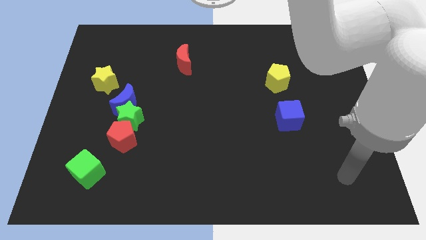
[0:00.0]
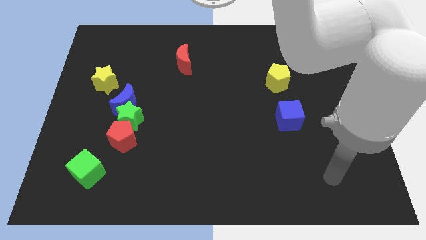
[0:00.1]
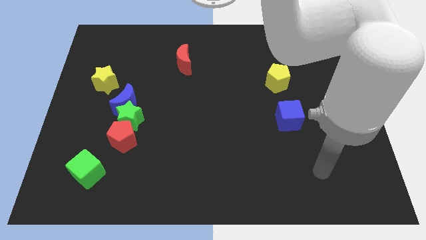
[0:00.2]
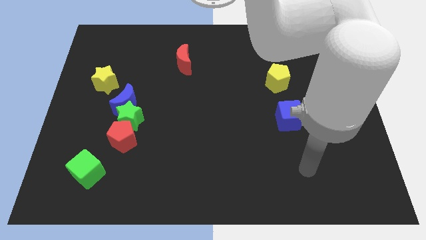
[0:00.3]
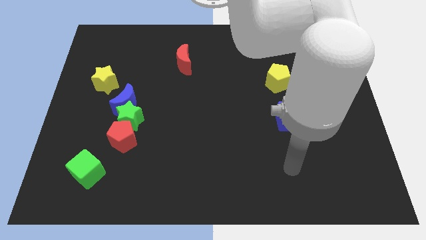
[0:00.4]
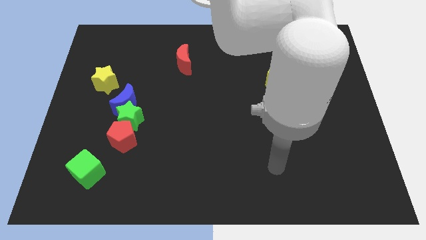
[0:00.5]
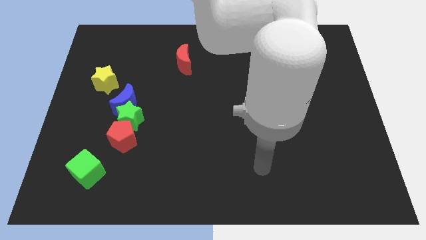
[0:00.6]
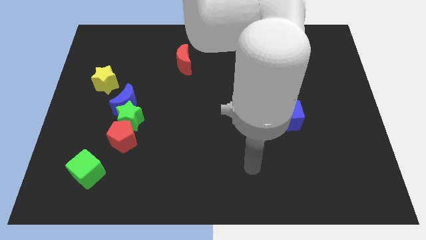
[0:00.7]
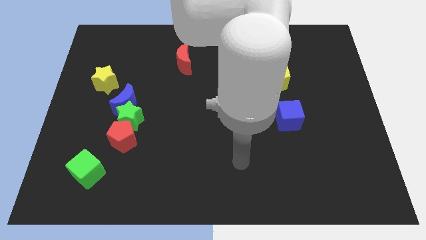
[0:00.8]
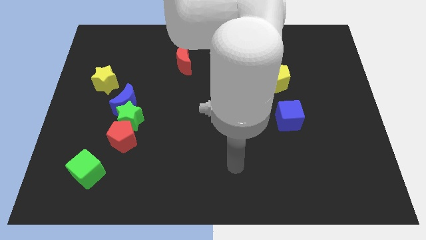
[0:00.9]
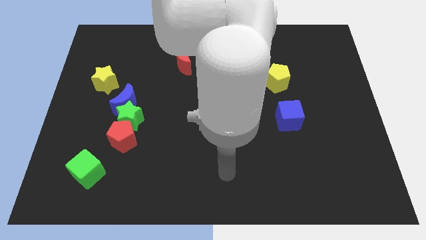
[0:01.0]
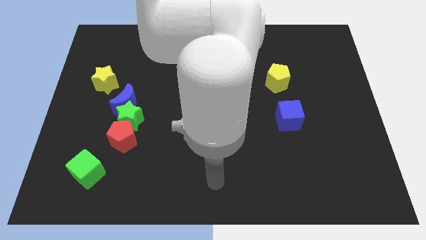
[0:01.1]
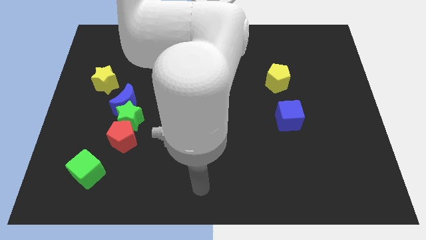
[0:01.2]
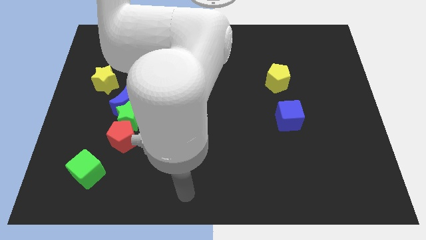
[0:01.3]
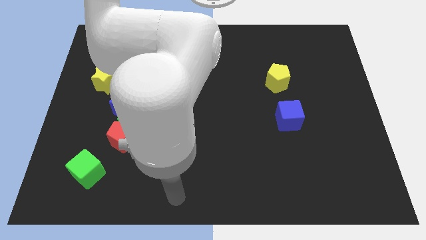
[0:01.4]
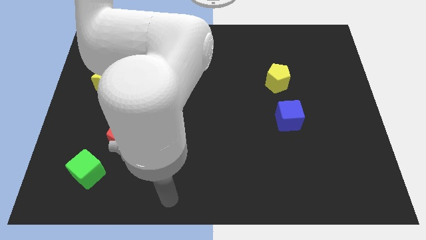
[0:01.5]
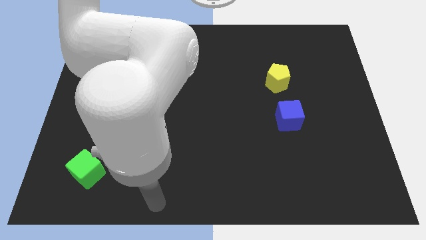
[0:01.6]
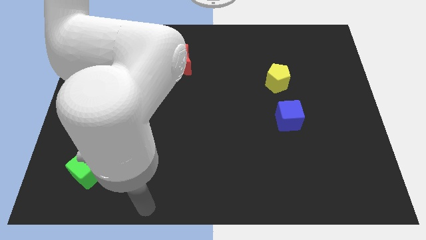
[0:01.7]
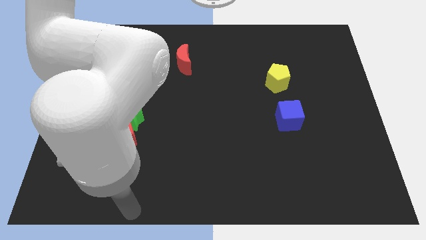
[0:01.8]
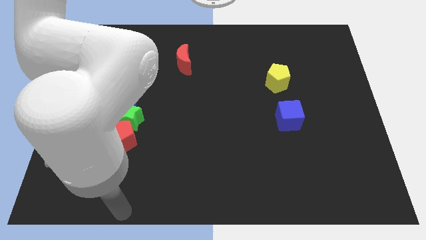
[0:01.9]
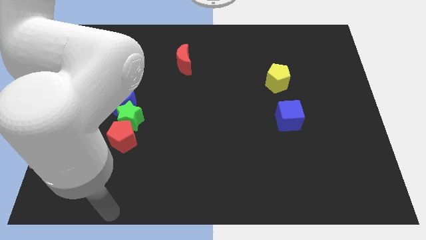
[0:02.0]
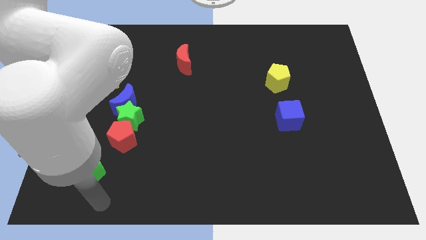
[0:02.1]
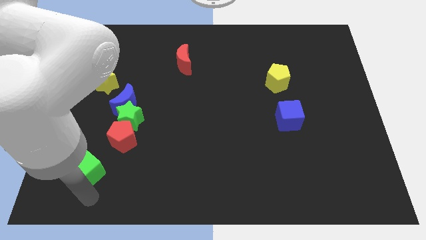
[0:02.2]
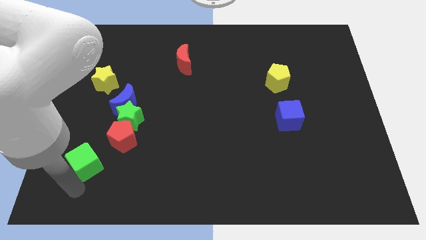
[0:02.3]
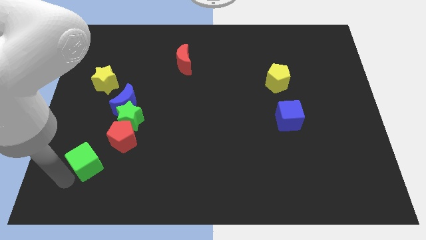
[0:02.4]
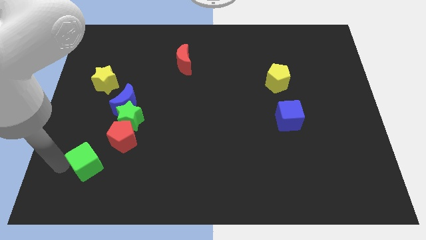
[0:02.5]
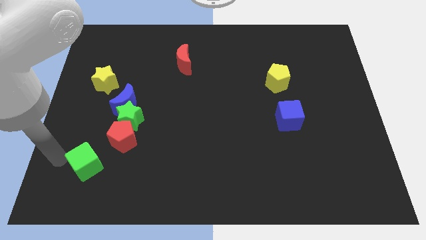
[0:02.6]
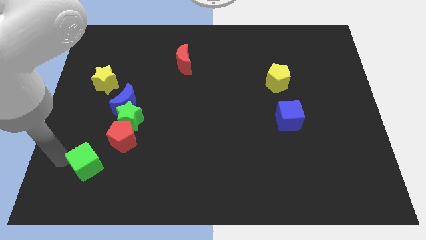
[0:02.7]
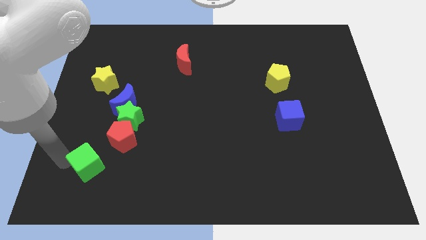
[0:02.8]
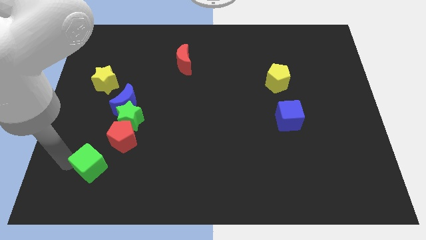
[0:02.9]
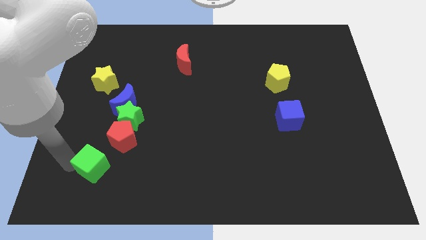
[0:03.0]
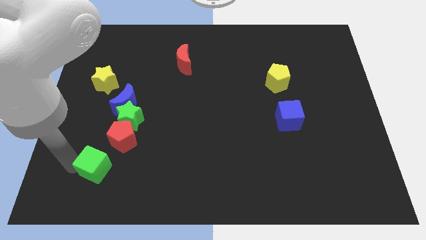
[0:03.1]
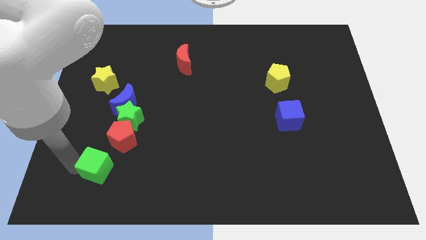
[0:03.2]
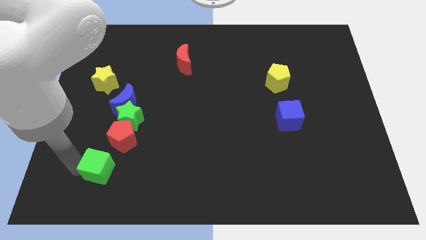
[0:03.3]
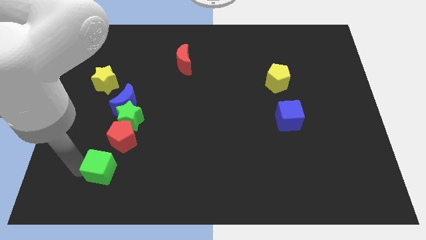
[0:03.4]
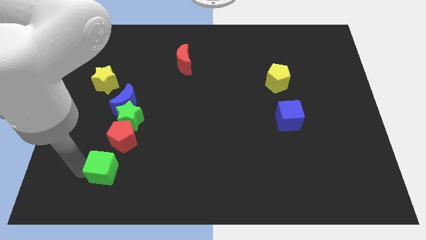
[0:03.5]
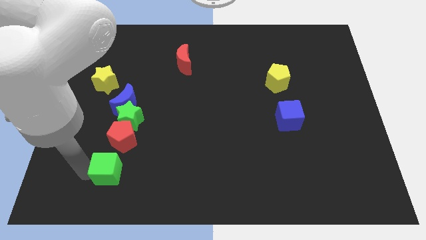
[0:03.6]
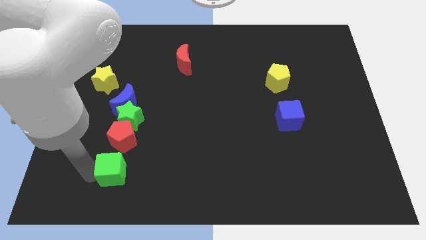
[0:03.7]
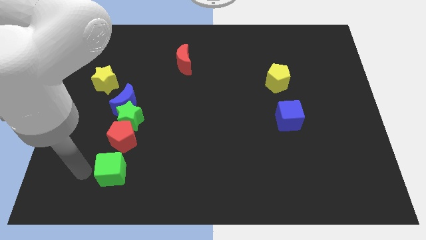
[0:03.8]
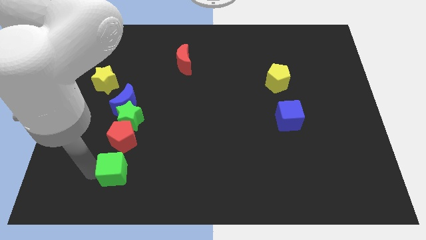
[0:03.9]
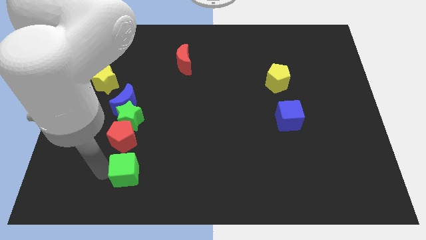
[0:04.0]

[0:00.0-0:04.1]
slightly move the green cube to the right

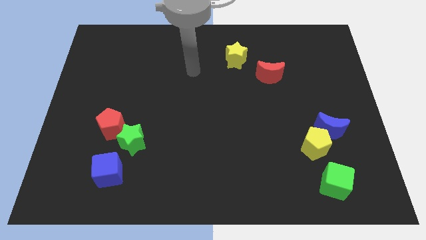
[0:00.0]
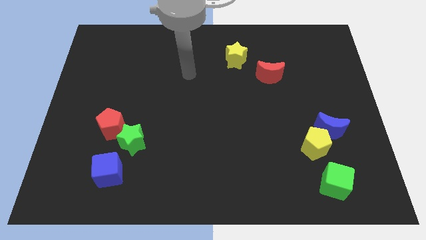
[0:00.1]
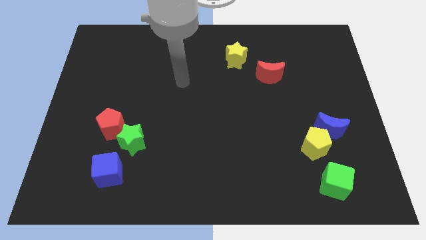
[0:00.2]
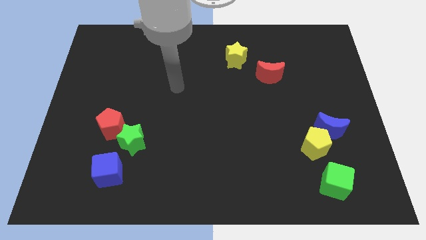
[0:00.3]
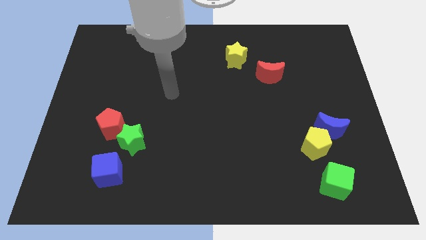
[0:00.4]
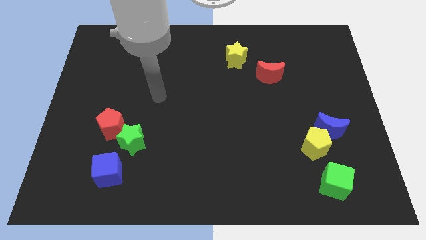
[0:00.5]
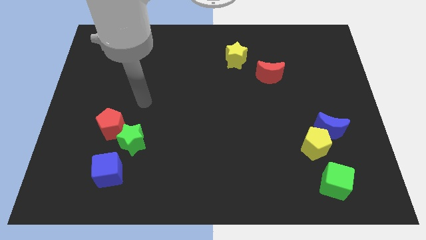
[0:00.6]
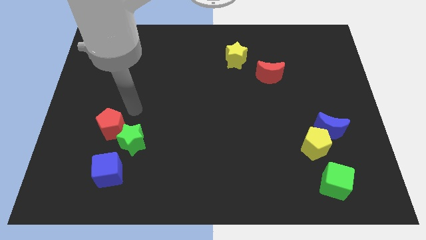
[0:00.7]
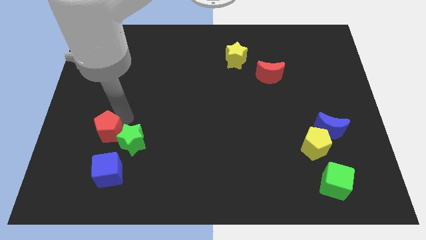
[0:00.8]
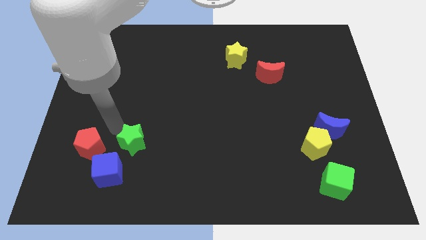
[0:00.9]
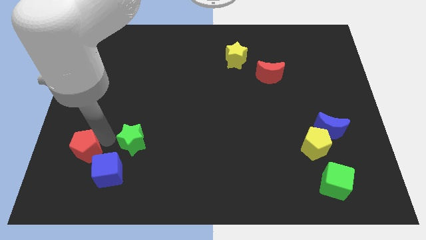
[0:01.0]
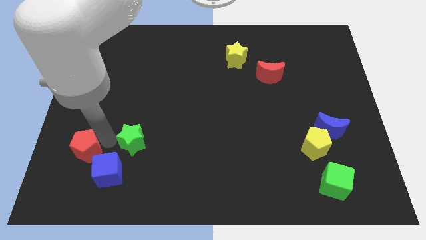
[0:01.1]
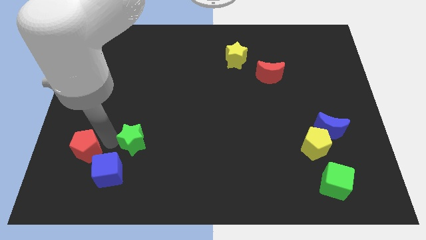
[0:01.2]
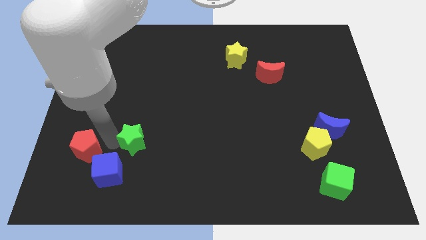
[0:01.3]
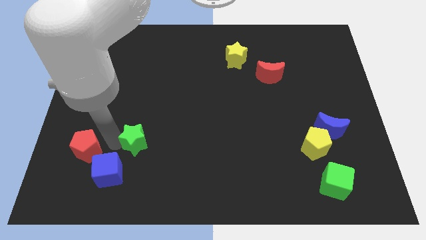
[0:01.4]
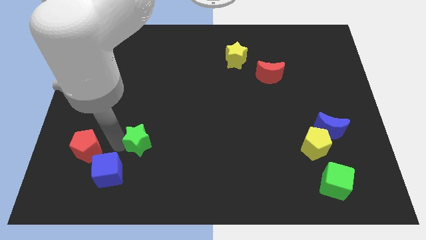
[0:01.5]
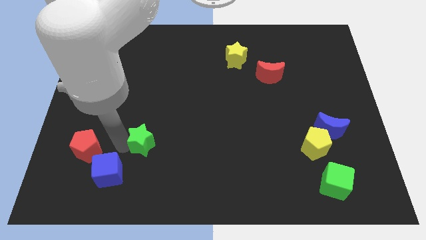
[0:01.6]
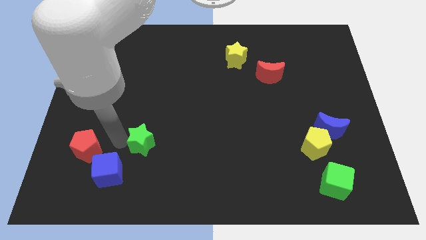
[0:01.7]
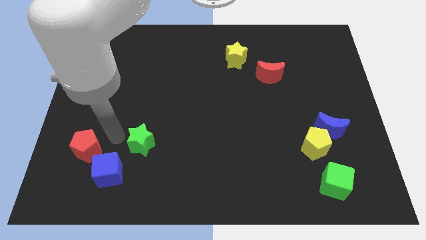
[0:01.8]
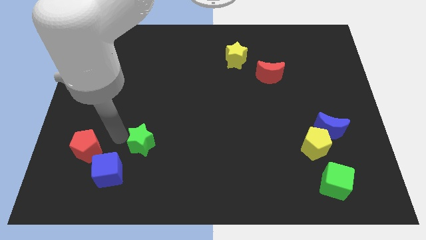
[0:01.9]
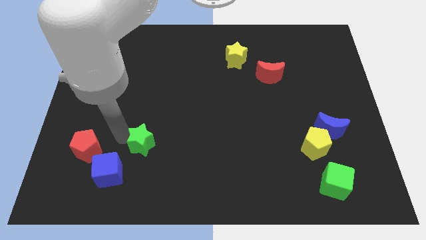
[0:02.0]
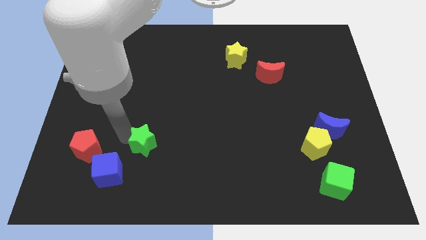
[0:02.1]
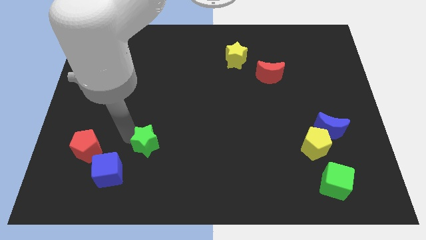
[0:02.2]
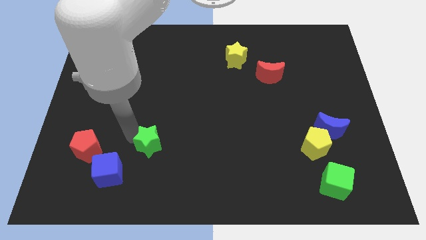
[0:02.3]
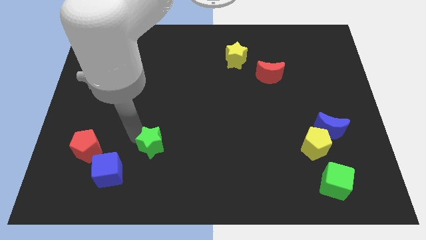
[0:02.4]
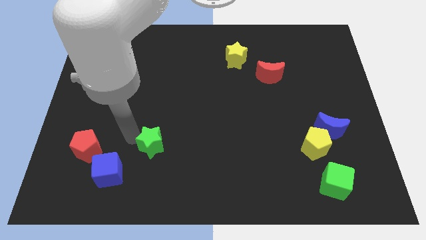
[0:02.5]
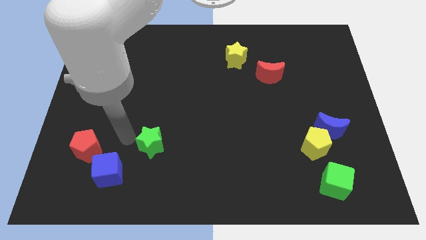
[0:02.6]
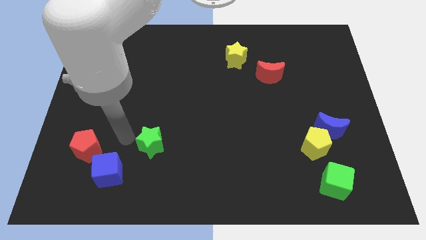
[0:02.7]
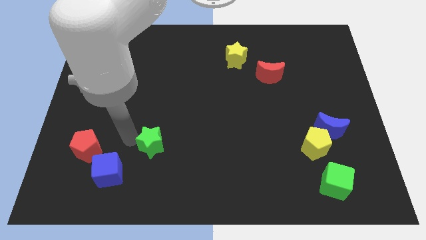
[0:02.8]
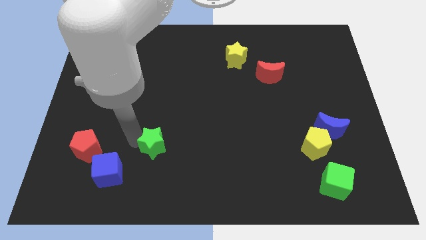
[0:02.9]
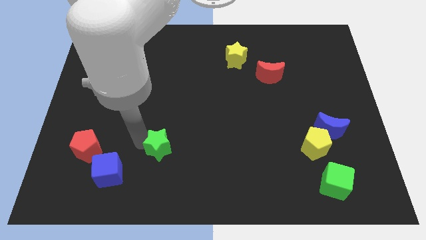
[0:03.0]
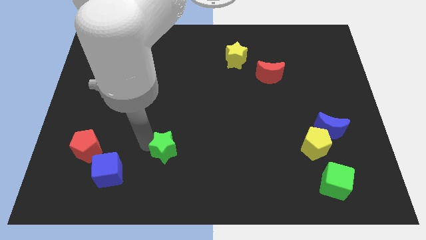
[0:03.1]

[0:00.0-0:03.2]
slightly slide the green star to the right

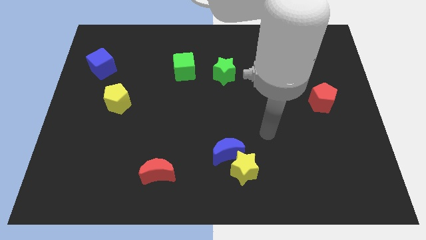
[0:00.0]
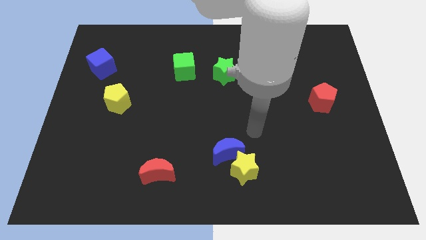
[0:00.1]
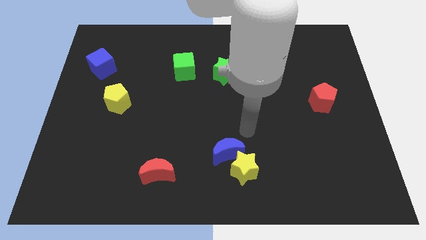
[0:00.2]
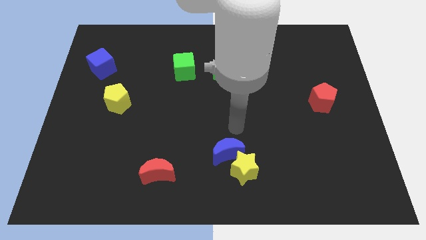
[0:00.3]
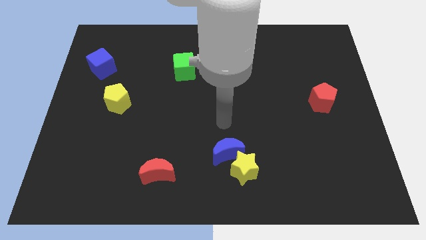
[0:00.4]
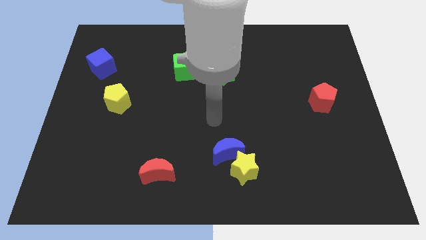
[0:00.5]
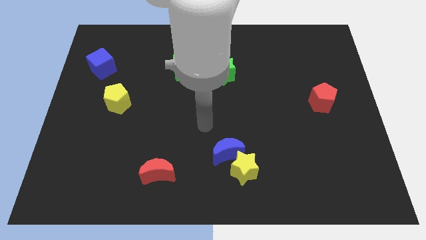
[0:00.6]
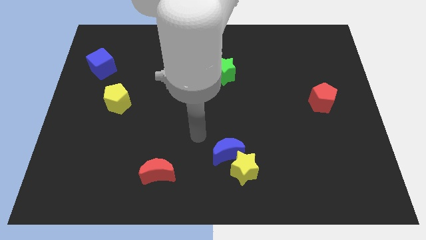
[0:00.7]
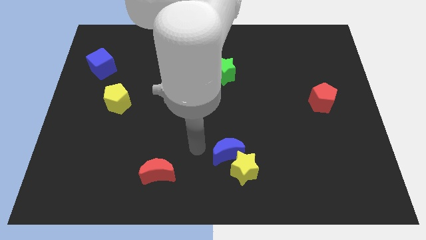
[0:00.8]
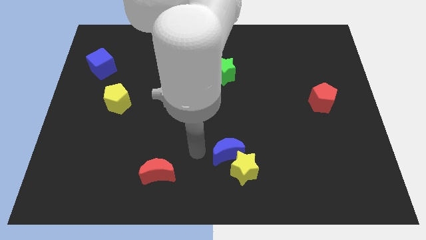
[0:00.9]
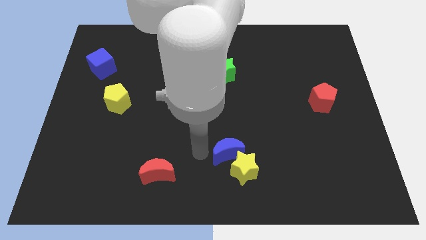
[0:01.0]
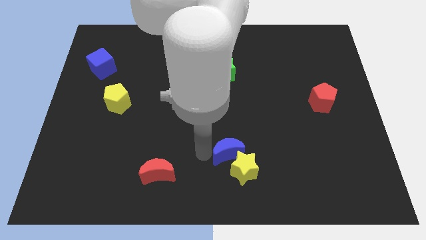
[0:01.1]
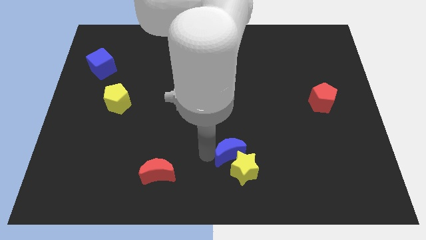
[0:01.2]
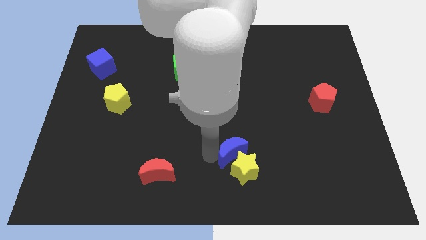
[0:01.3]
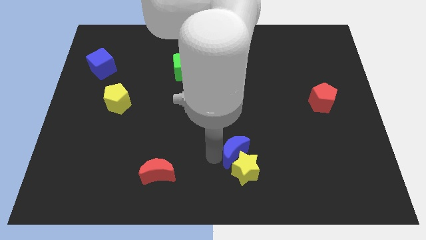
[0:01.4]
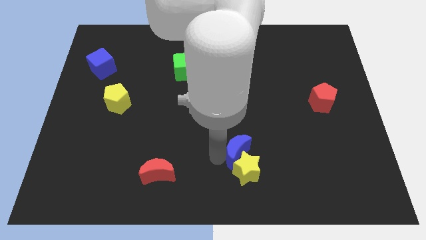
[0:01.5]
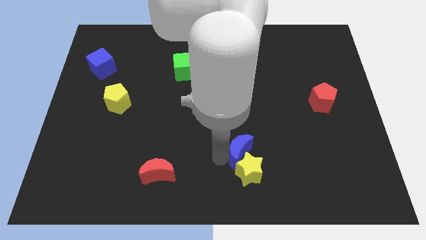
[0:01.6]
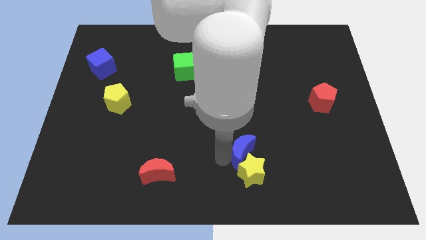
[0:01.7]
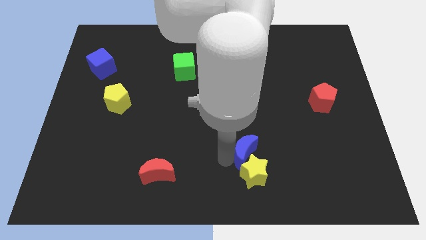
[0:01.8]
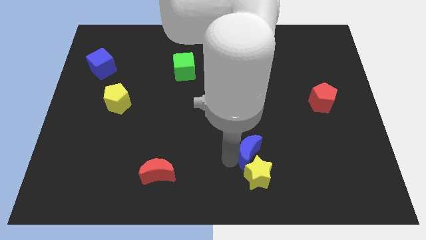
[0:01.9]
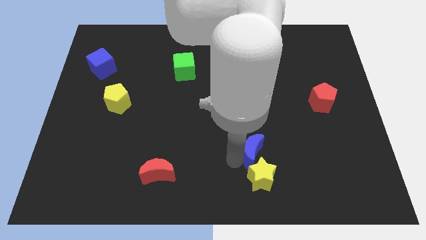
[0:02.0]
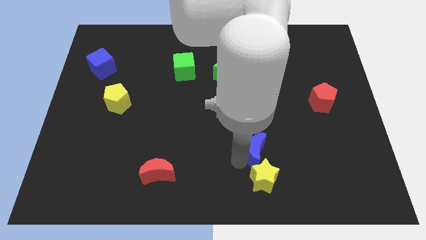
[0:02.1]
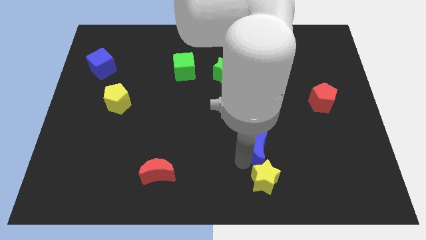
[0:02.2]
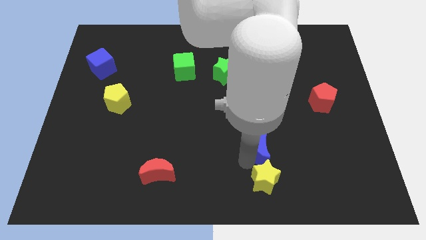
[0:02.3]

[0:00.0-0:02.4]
push the blue moon slightly to the right
